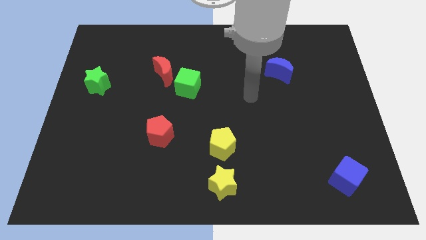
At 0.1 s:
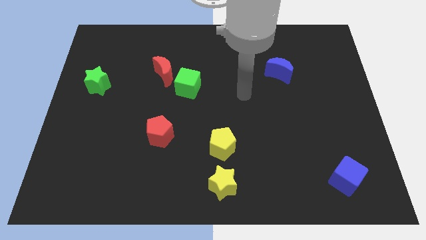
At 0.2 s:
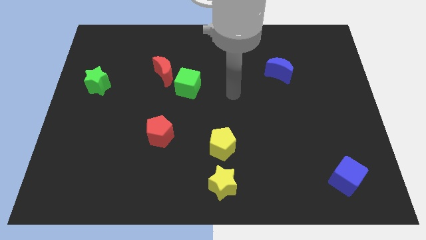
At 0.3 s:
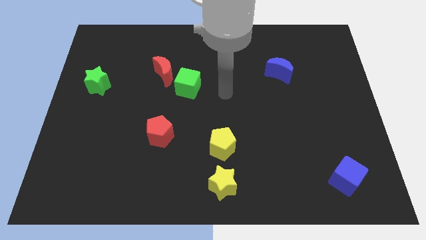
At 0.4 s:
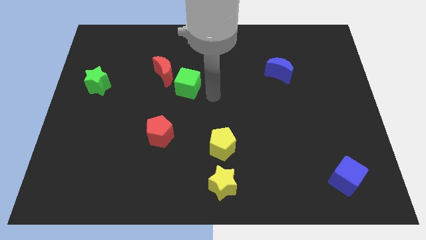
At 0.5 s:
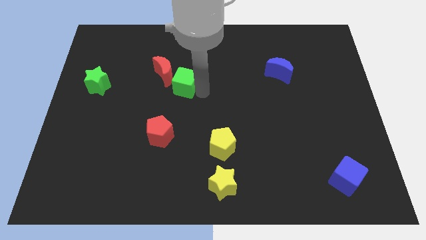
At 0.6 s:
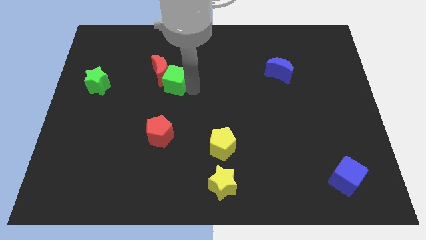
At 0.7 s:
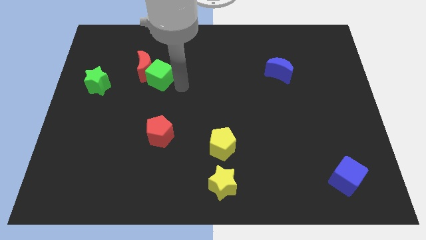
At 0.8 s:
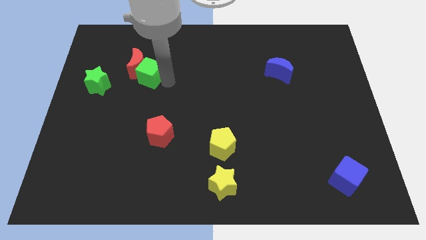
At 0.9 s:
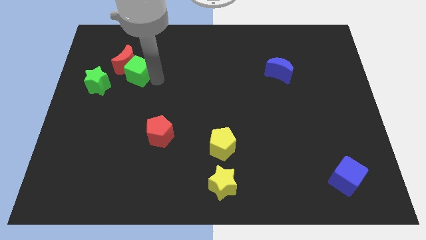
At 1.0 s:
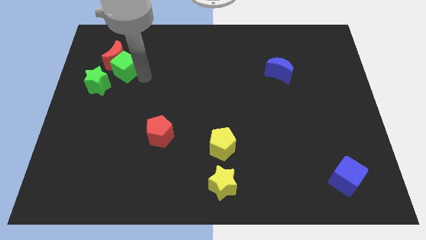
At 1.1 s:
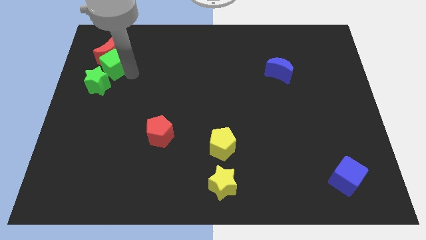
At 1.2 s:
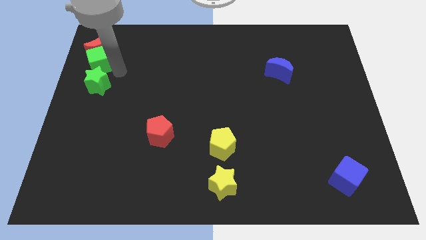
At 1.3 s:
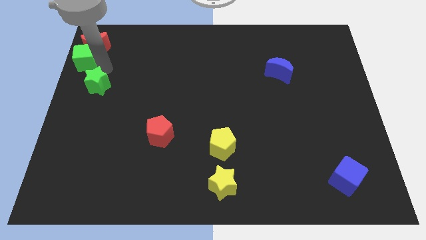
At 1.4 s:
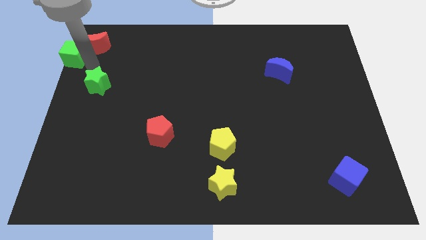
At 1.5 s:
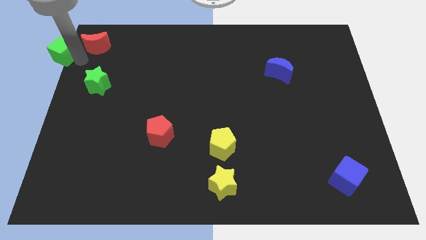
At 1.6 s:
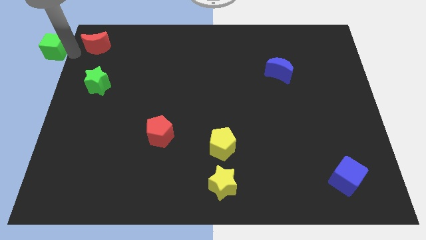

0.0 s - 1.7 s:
move the red moon away from the green cube

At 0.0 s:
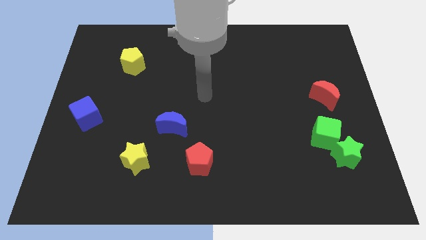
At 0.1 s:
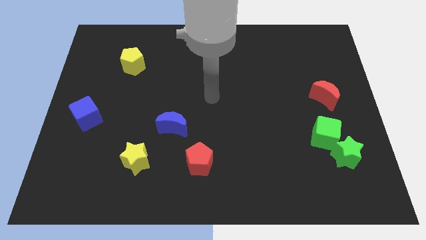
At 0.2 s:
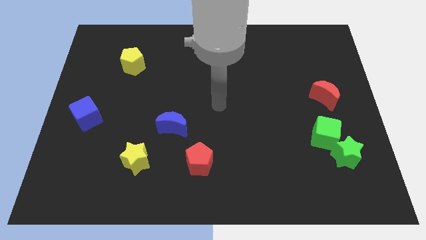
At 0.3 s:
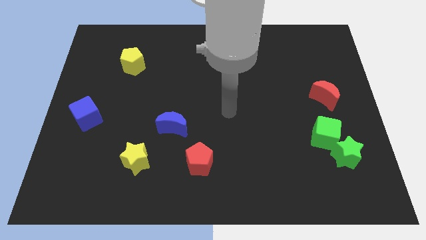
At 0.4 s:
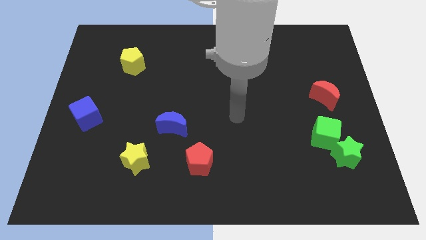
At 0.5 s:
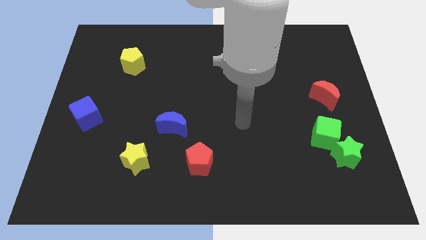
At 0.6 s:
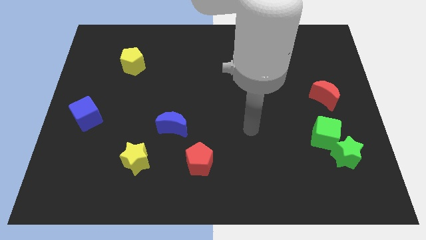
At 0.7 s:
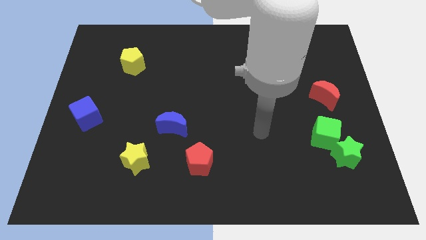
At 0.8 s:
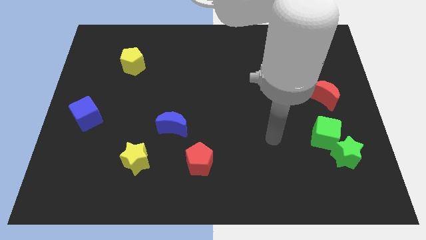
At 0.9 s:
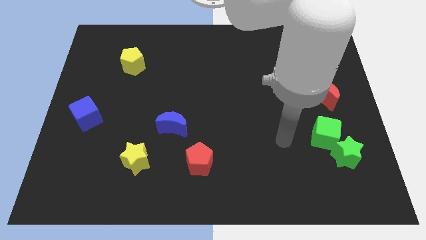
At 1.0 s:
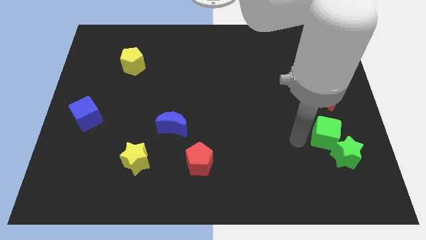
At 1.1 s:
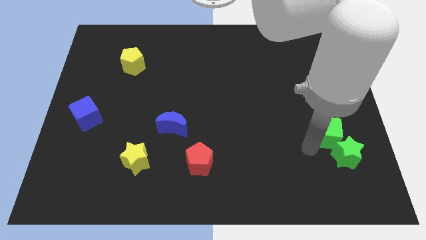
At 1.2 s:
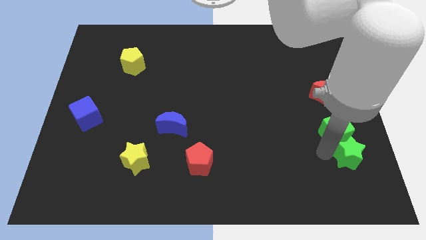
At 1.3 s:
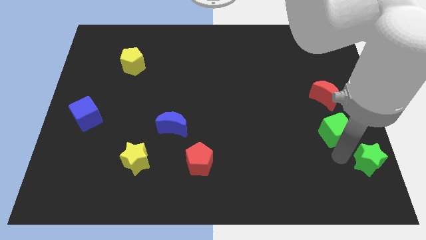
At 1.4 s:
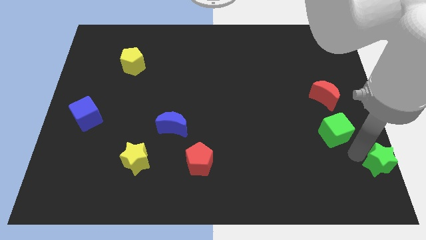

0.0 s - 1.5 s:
separate the green cube from the green star

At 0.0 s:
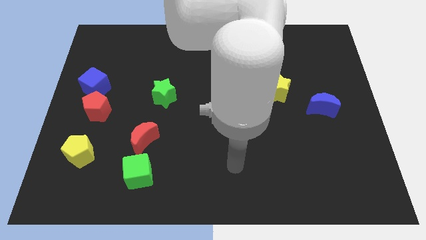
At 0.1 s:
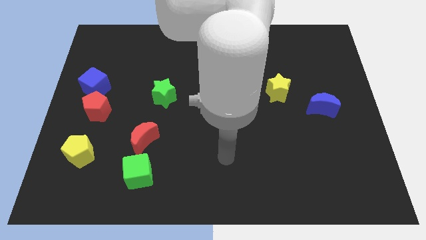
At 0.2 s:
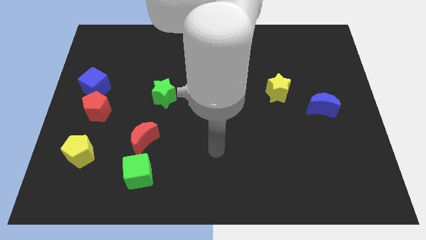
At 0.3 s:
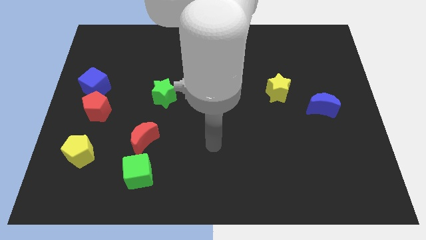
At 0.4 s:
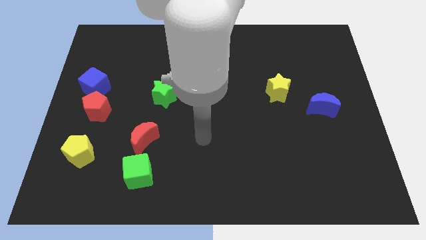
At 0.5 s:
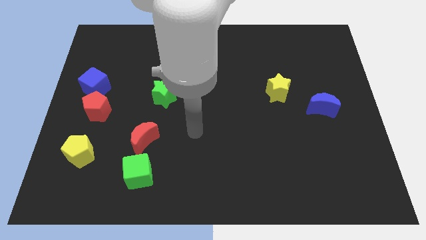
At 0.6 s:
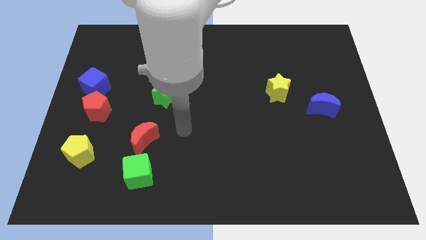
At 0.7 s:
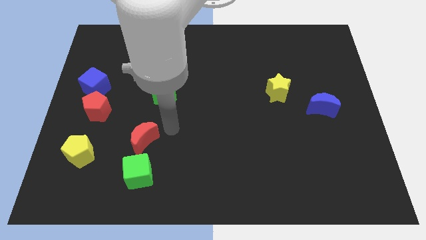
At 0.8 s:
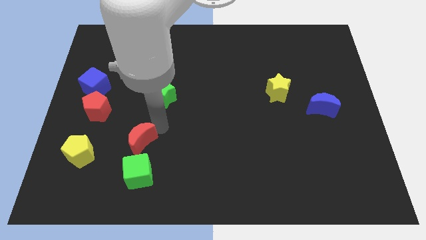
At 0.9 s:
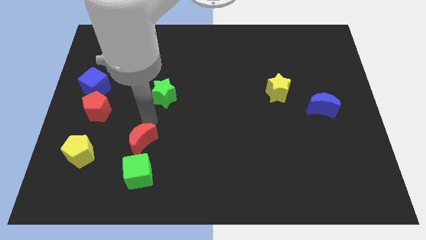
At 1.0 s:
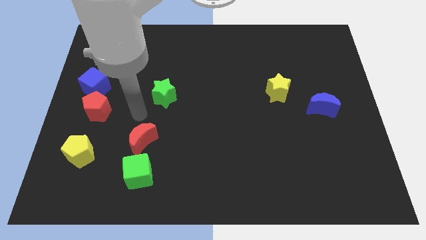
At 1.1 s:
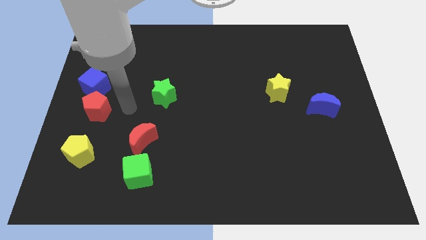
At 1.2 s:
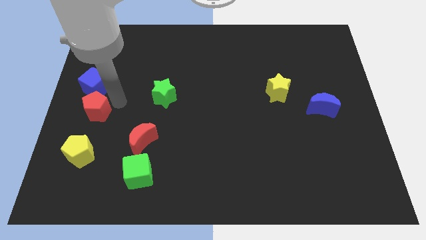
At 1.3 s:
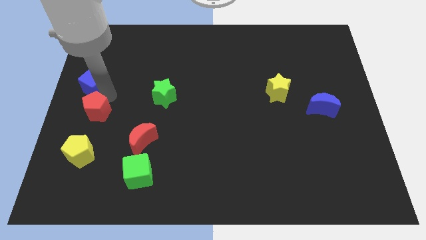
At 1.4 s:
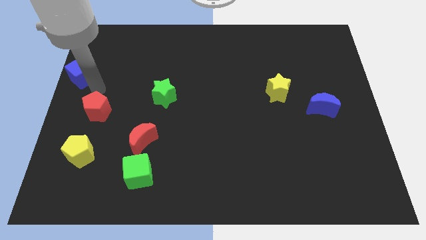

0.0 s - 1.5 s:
separate the red pentagon from the blue cube

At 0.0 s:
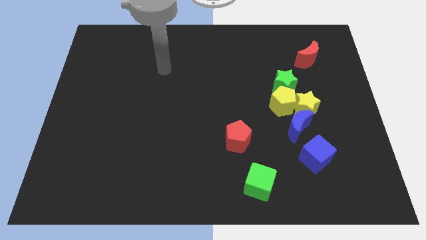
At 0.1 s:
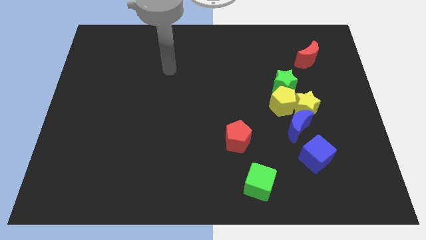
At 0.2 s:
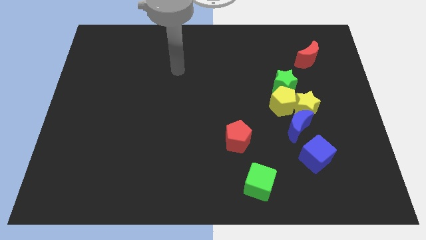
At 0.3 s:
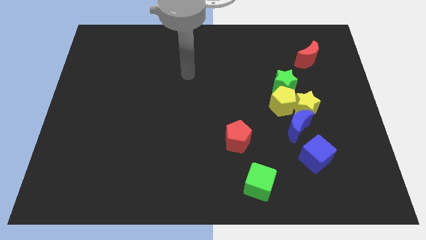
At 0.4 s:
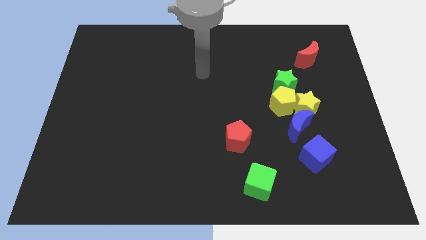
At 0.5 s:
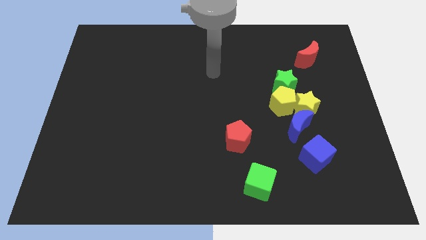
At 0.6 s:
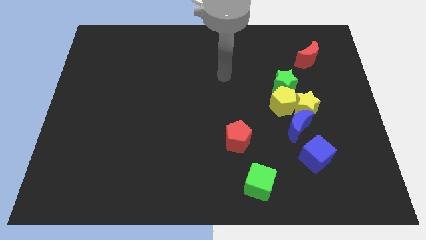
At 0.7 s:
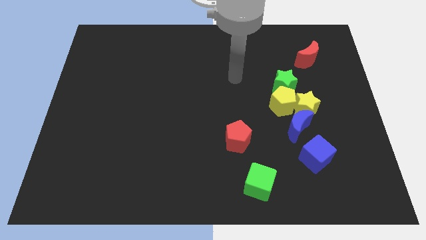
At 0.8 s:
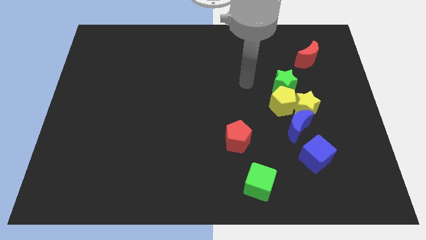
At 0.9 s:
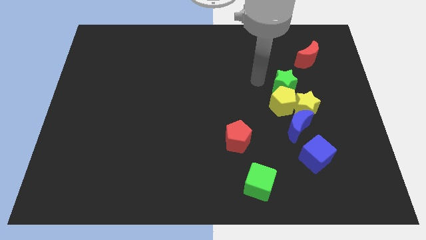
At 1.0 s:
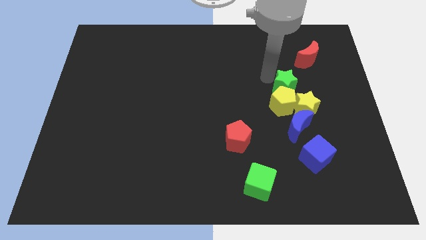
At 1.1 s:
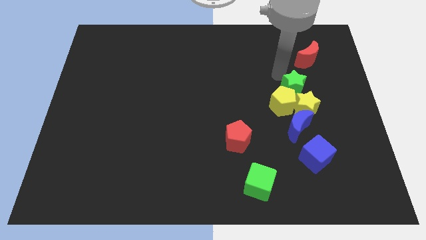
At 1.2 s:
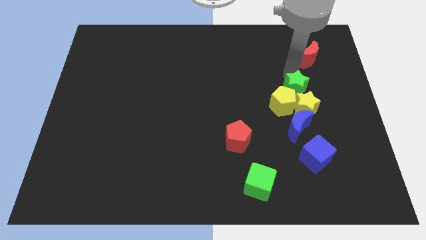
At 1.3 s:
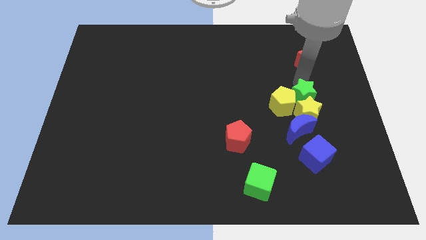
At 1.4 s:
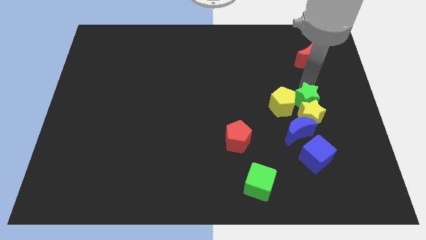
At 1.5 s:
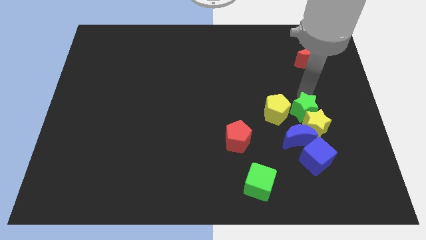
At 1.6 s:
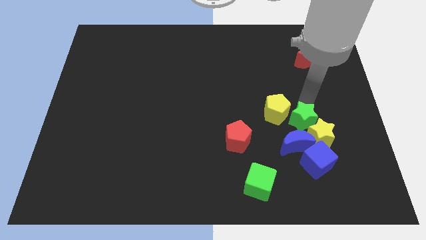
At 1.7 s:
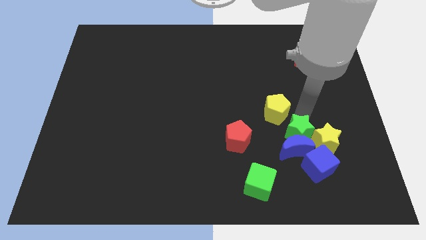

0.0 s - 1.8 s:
pull the yellow pentagon apart from the yellow star, green star, and blue moon

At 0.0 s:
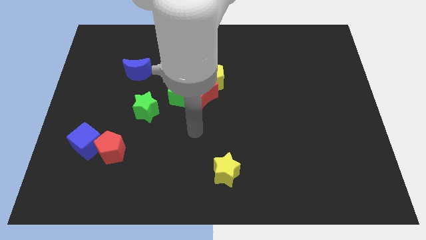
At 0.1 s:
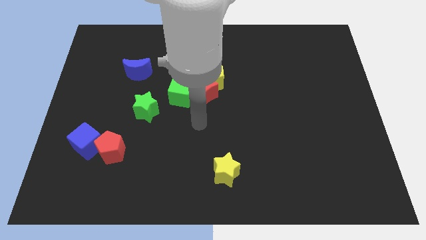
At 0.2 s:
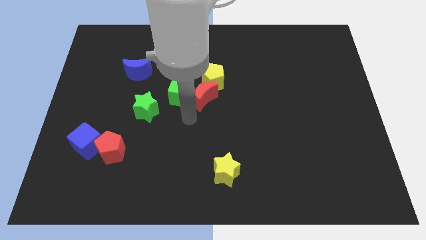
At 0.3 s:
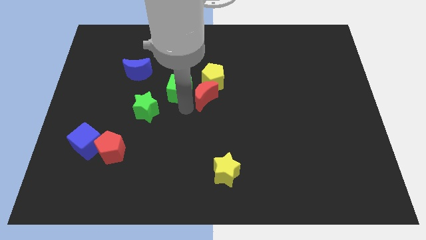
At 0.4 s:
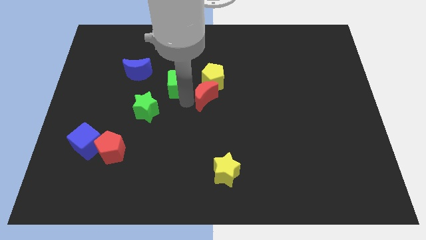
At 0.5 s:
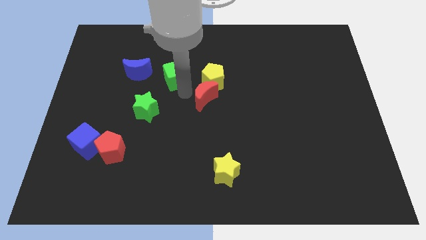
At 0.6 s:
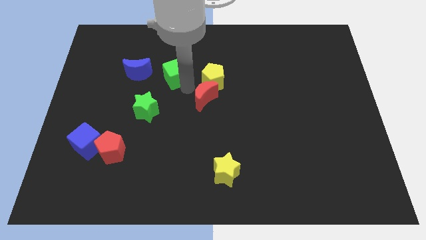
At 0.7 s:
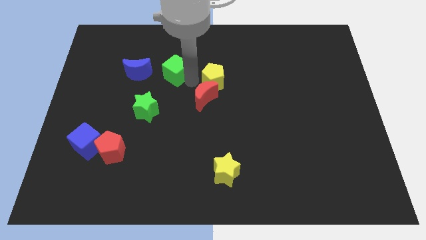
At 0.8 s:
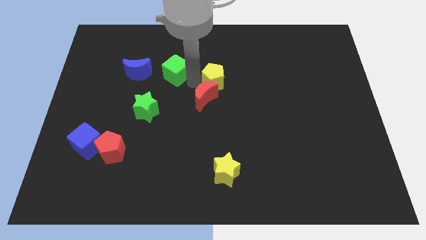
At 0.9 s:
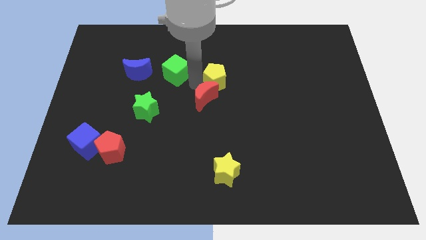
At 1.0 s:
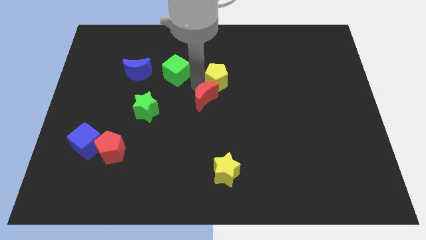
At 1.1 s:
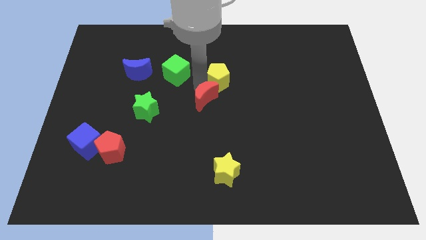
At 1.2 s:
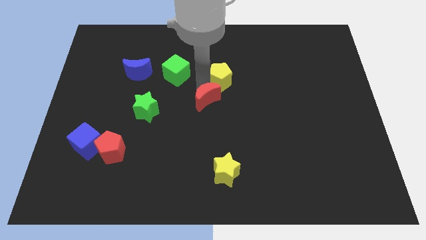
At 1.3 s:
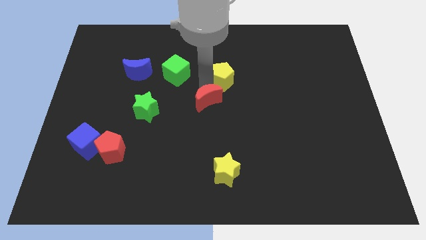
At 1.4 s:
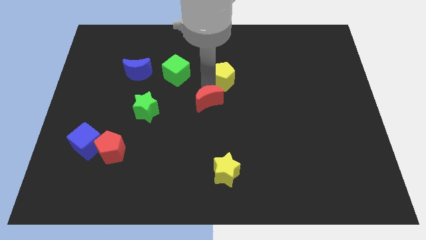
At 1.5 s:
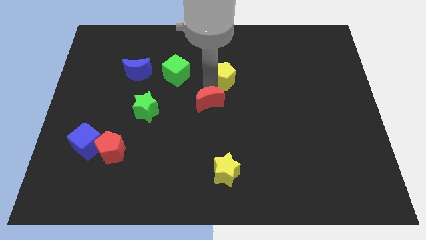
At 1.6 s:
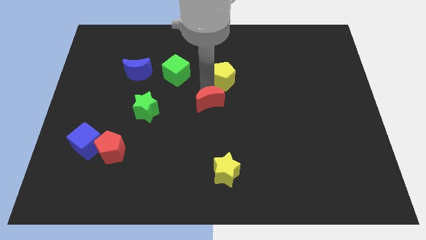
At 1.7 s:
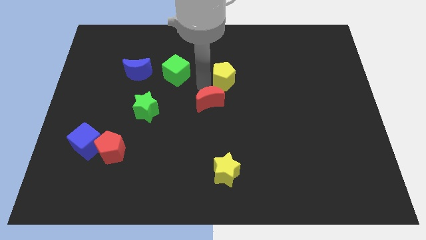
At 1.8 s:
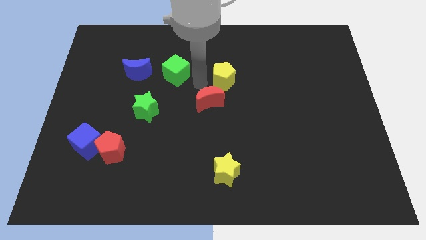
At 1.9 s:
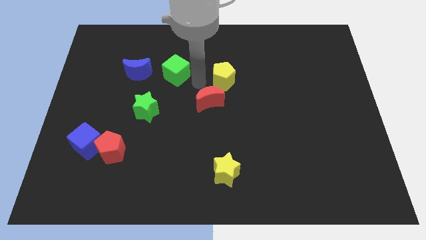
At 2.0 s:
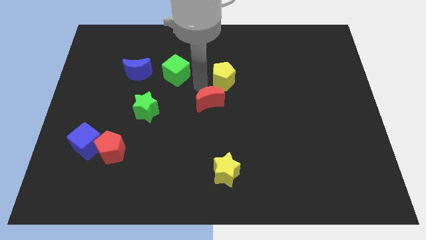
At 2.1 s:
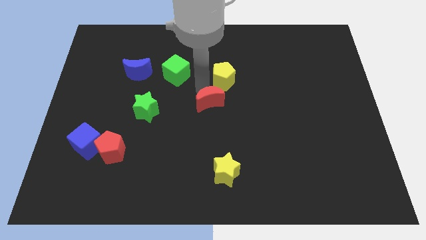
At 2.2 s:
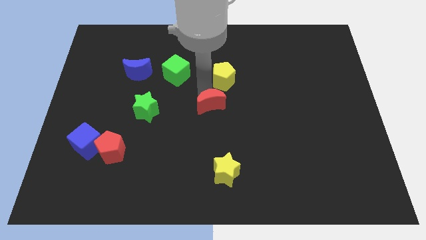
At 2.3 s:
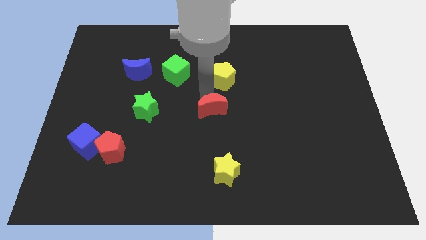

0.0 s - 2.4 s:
pull the red moon apart from the green cube and yellow pentagon

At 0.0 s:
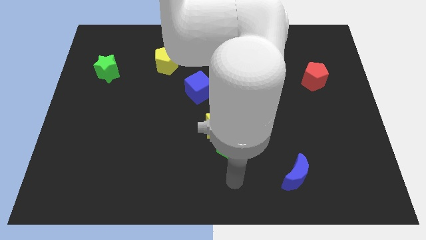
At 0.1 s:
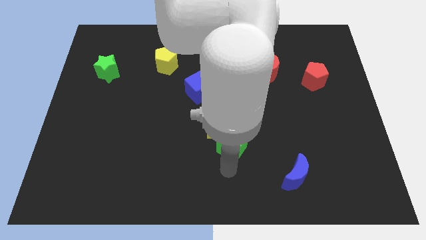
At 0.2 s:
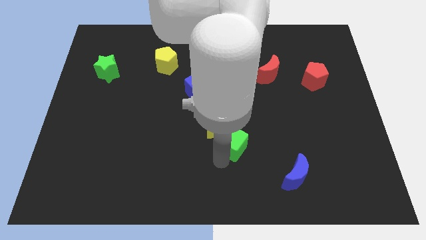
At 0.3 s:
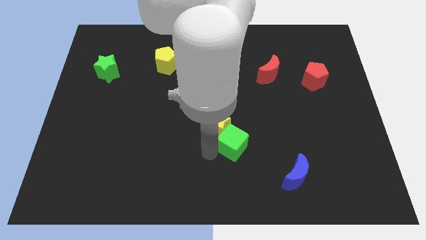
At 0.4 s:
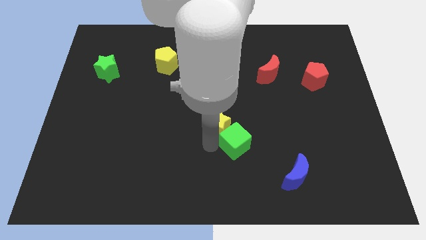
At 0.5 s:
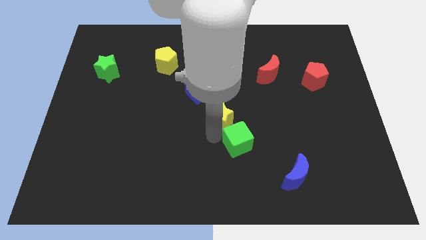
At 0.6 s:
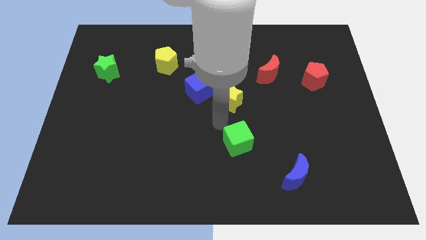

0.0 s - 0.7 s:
separate the green cube from the yellow star
